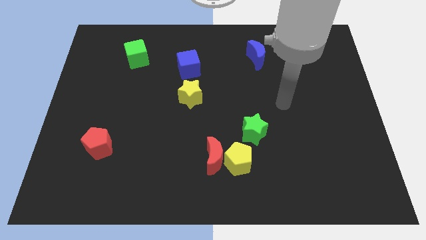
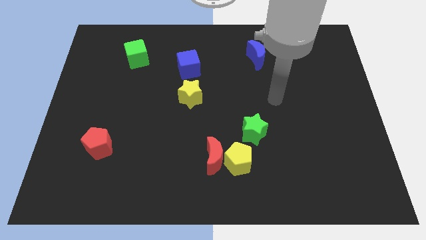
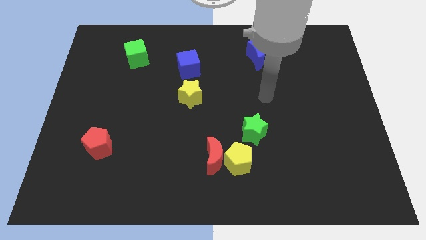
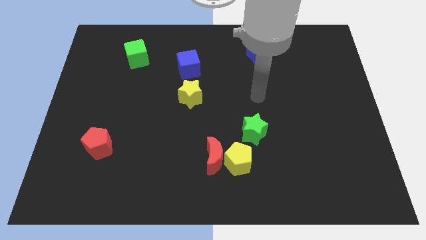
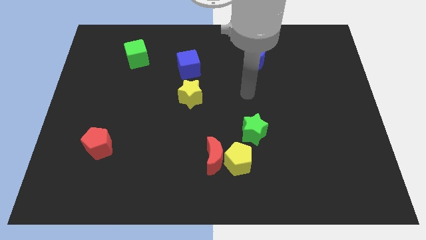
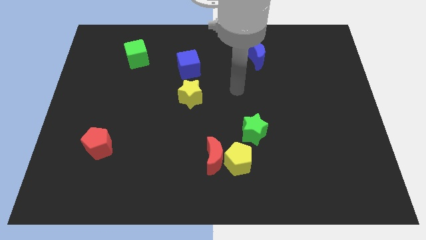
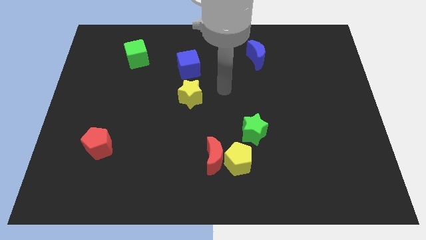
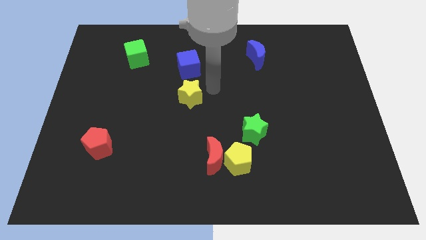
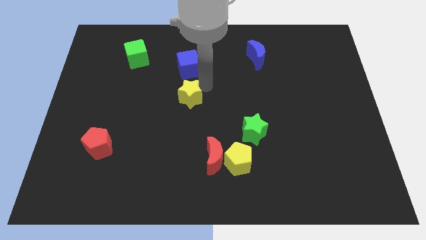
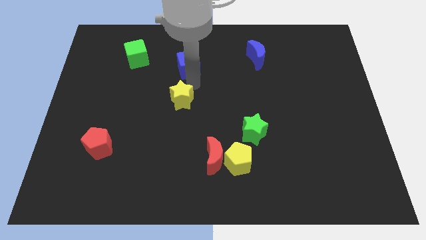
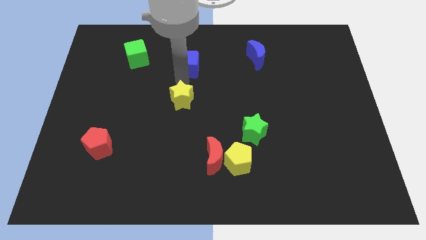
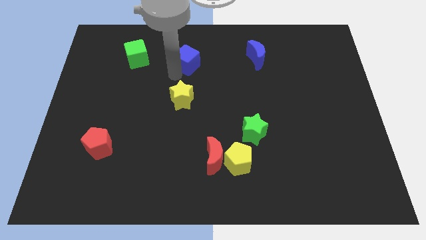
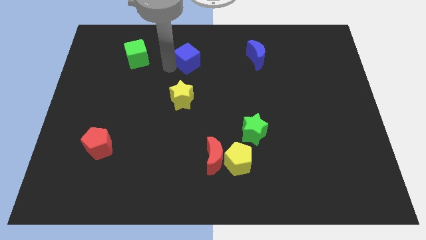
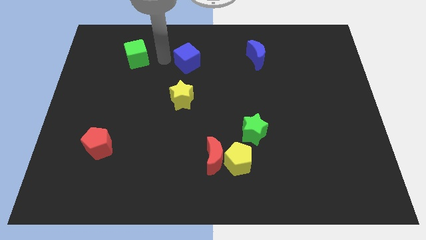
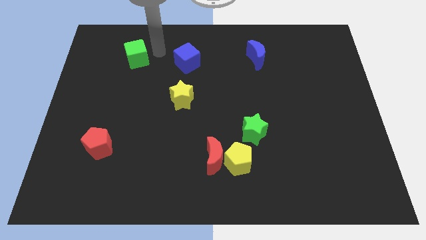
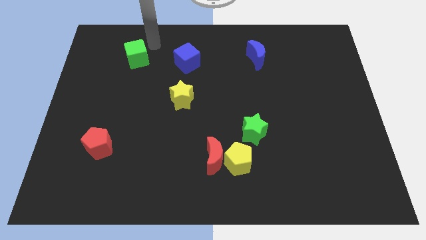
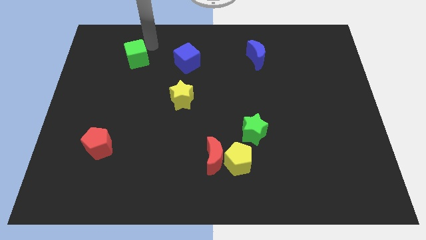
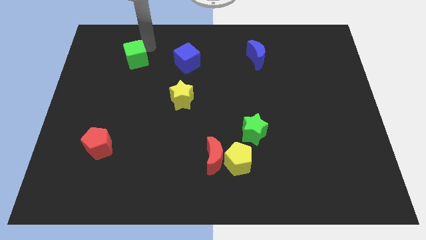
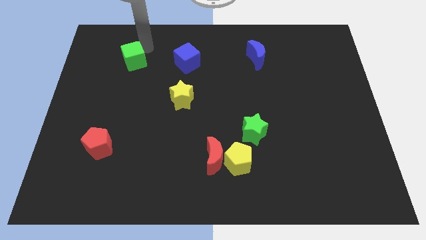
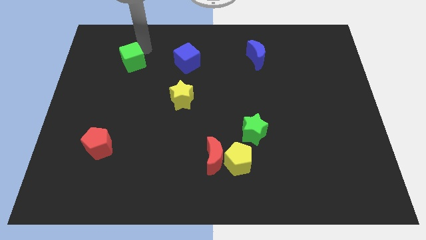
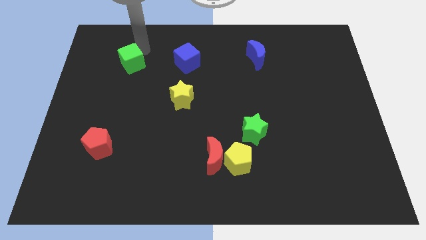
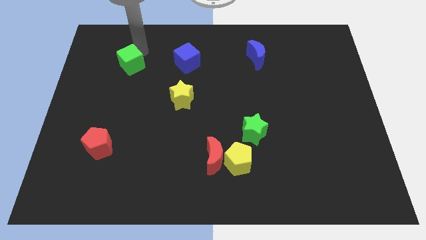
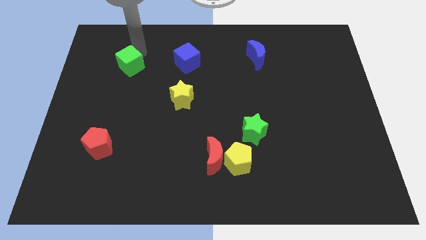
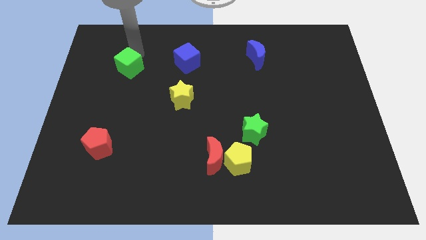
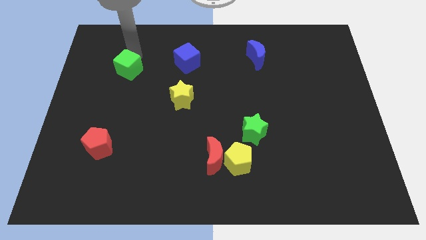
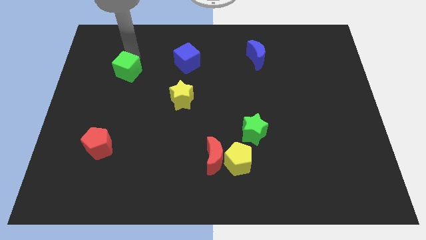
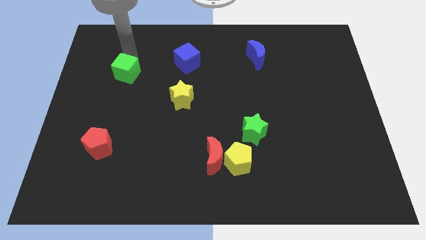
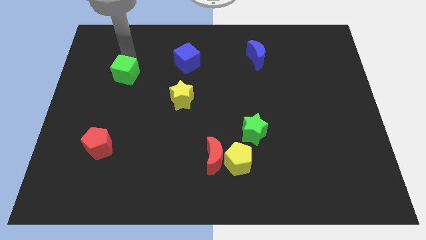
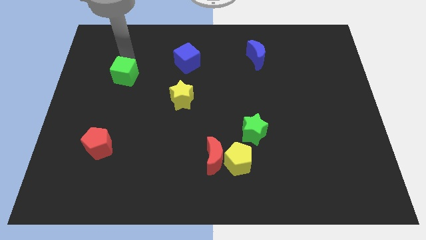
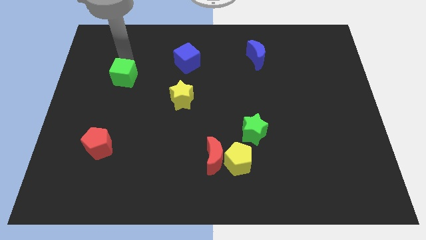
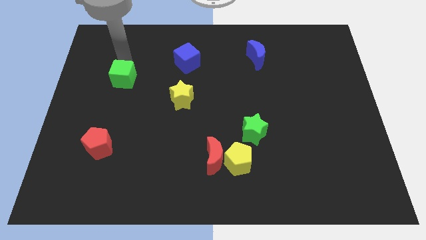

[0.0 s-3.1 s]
slide the green cube slightly downwards

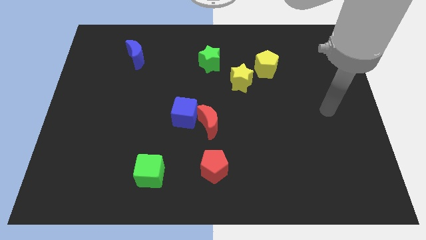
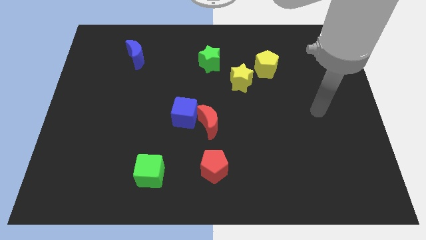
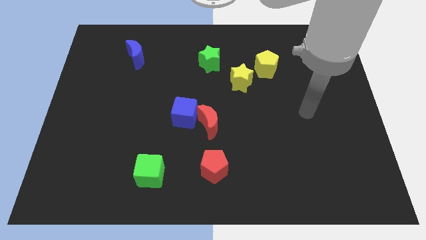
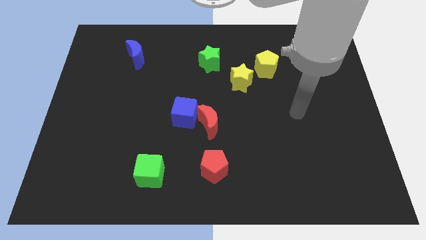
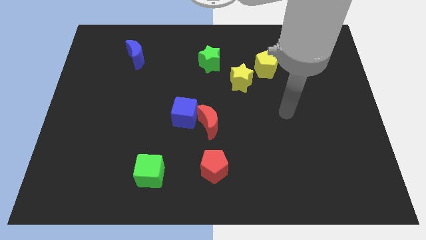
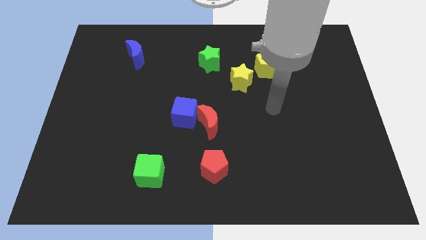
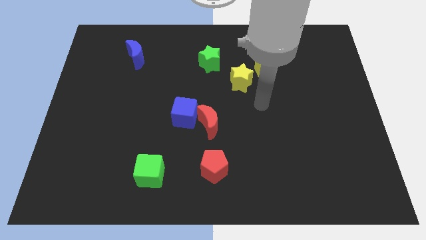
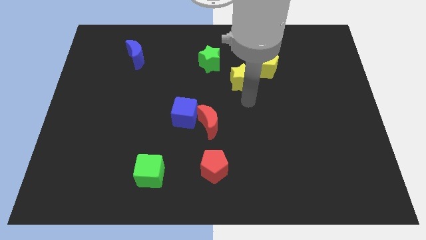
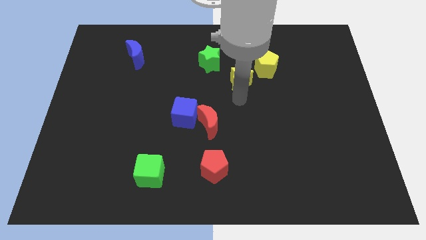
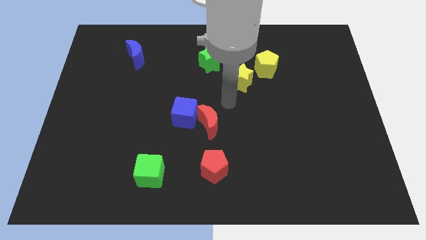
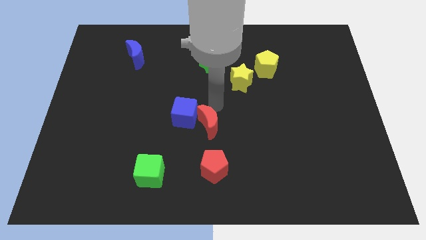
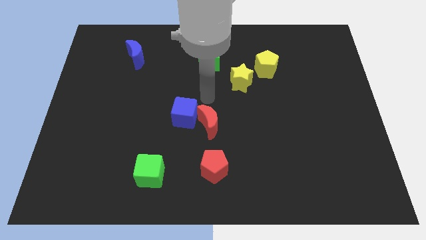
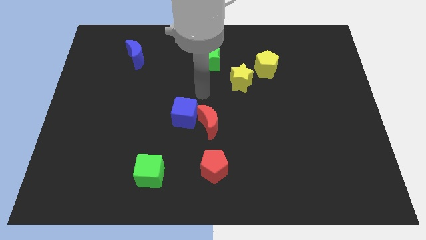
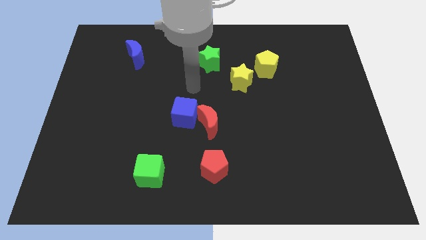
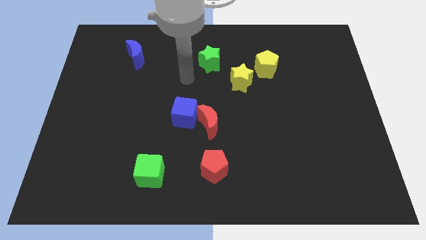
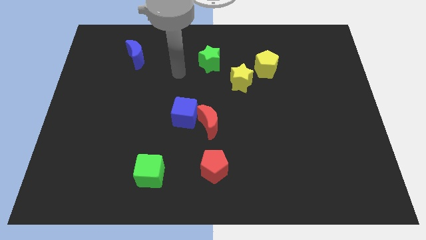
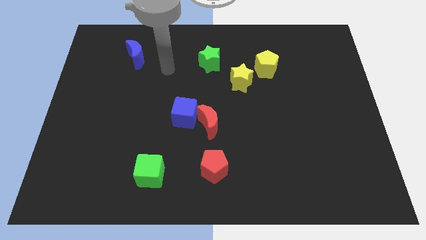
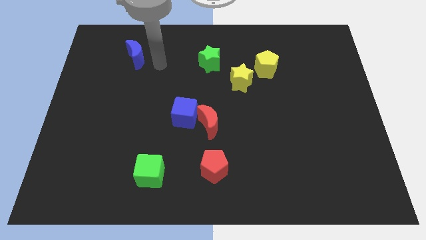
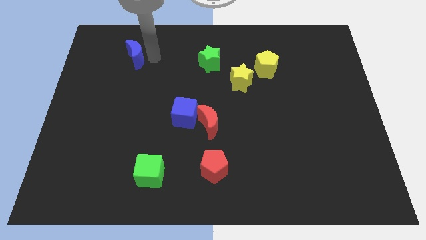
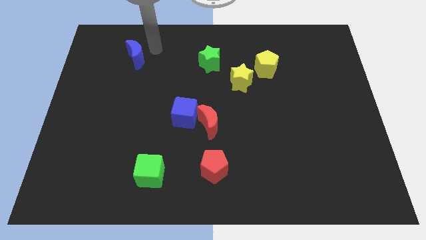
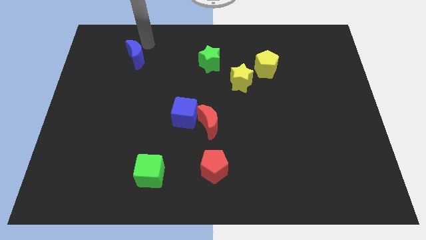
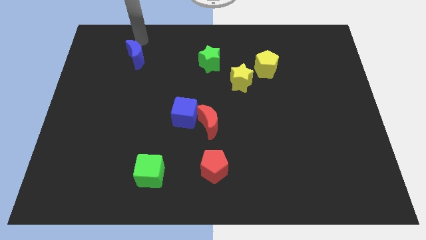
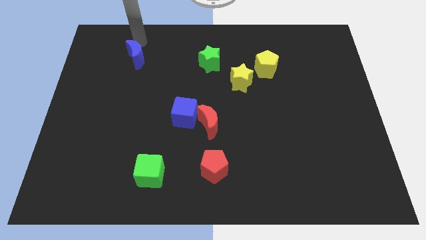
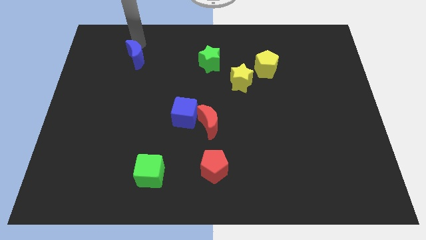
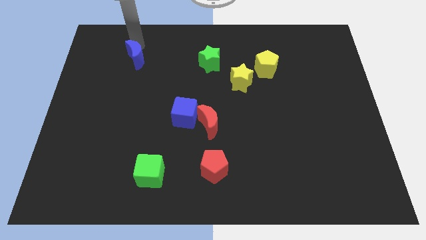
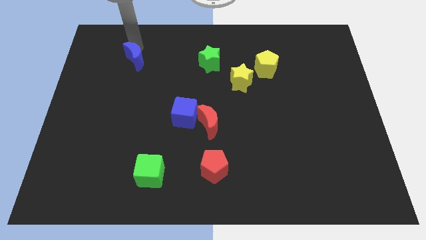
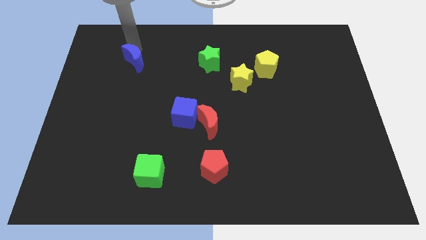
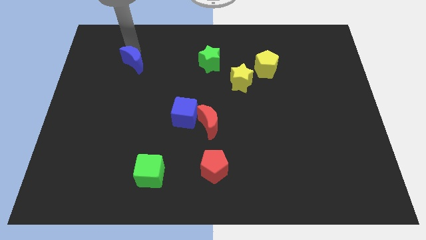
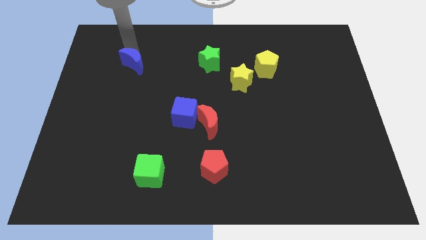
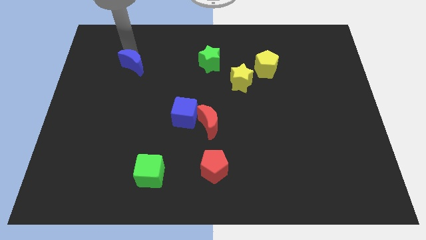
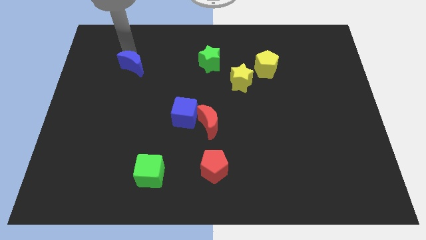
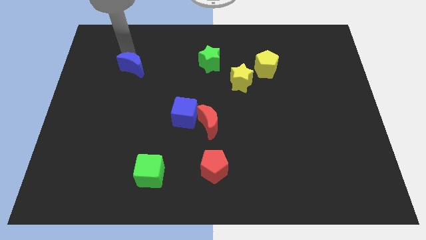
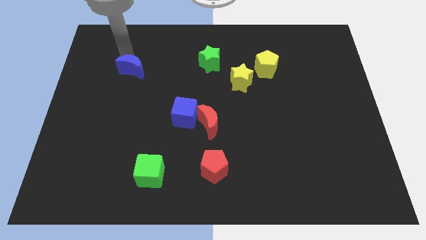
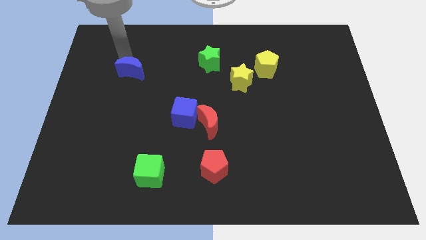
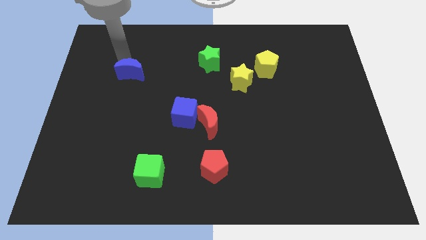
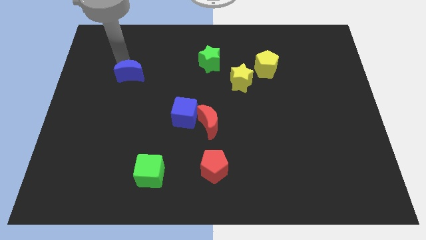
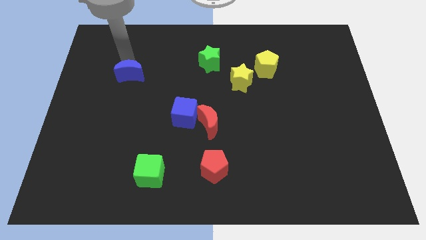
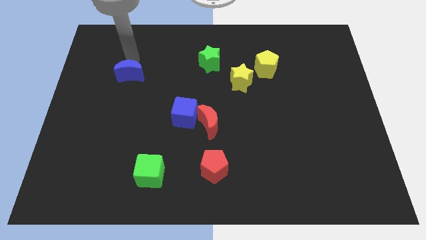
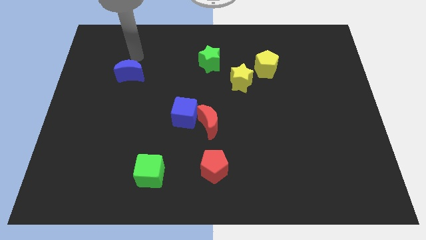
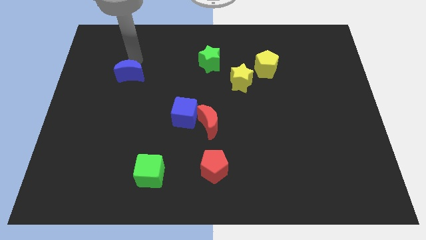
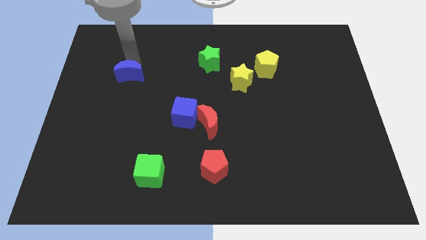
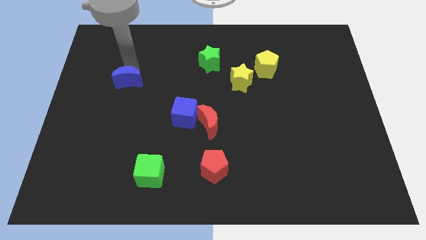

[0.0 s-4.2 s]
slightly slide the blue moon downwards

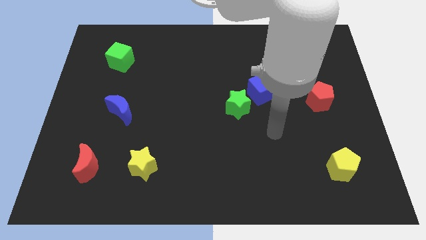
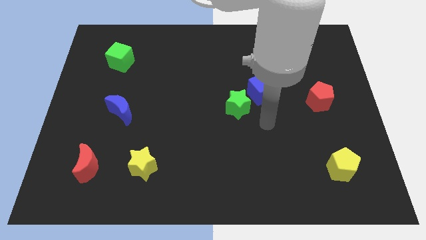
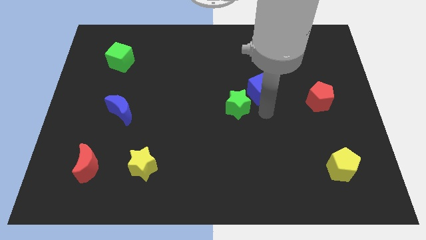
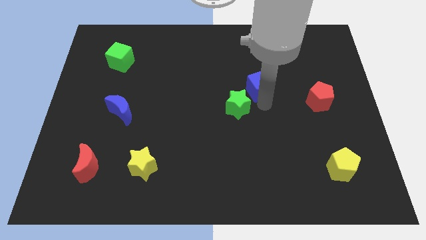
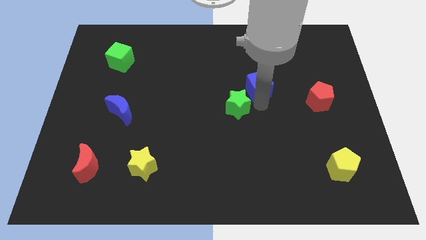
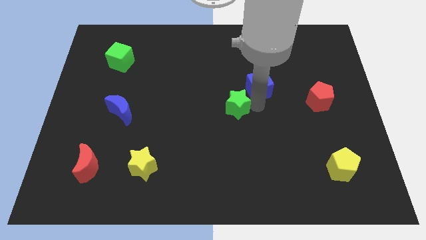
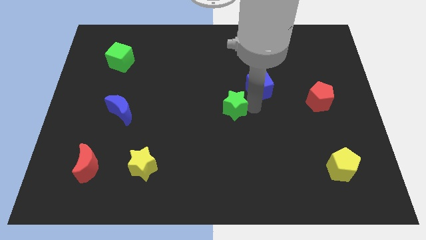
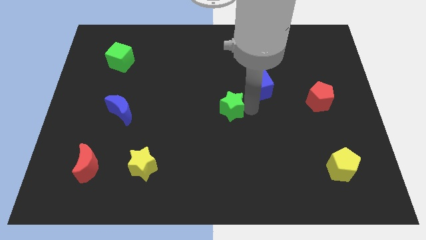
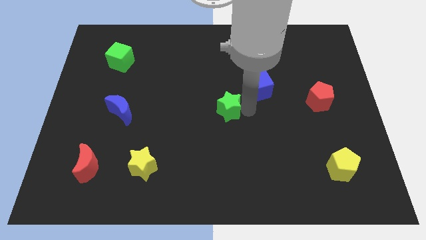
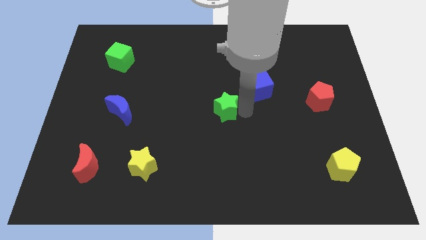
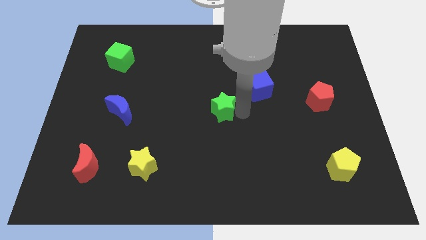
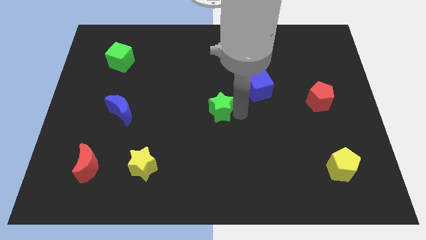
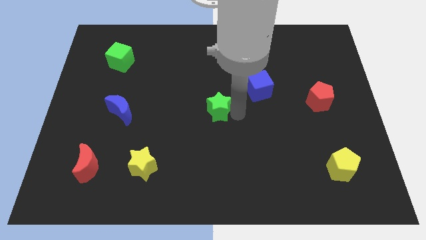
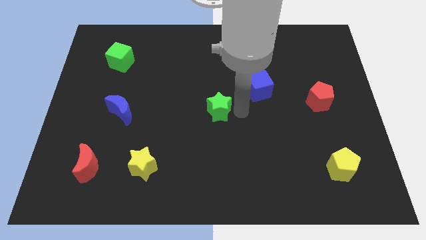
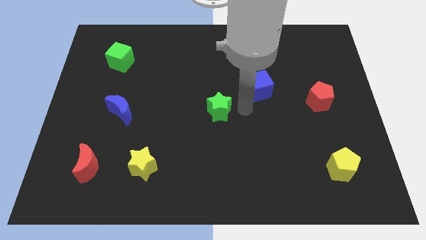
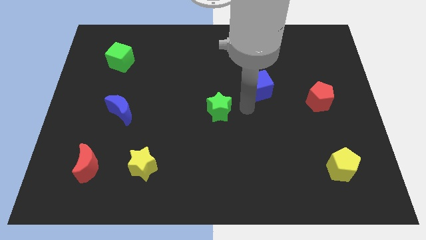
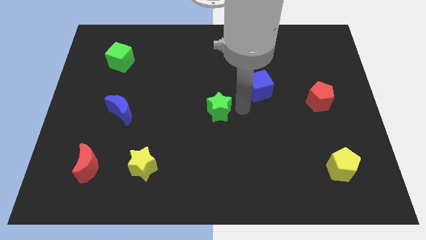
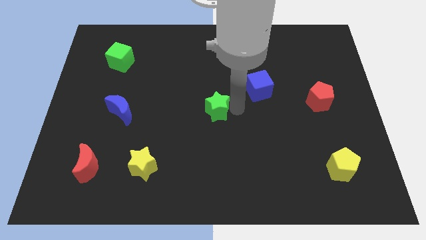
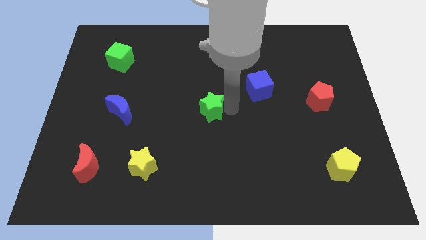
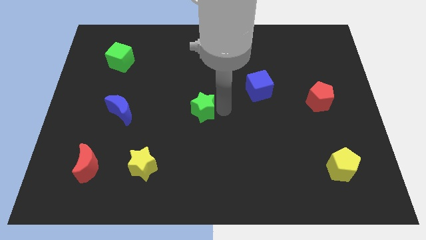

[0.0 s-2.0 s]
slide the green star a little left
